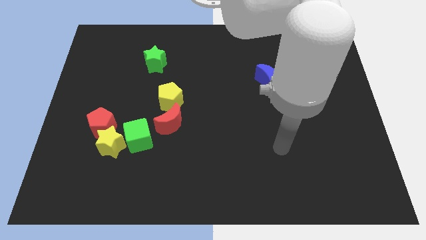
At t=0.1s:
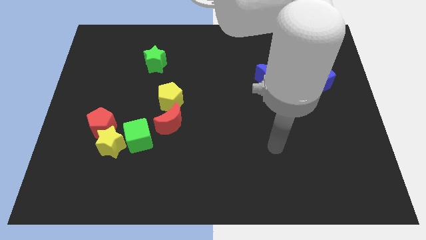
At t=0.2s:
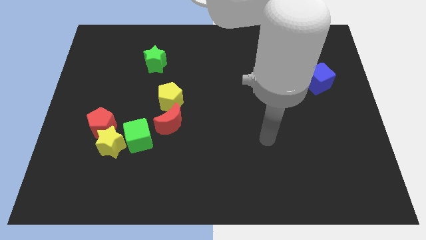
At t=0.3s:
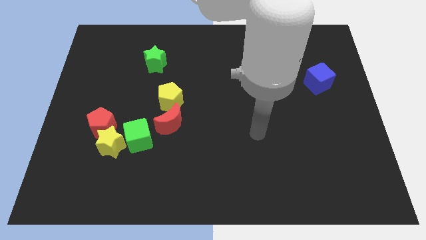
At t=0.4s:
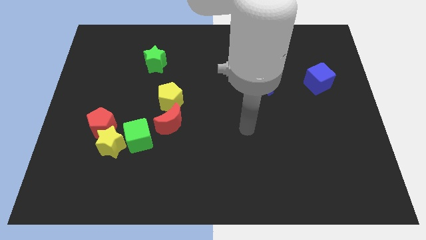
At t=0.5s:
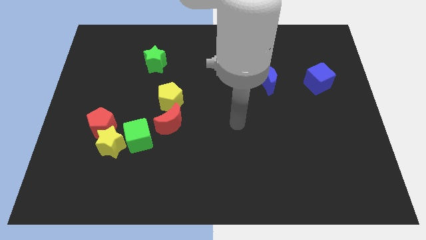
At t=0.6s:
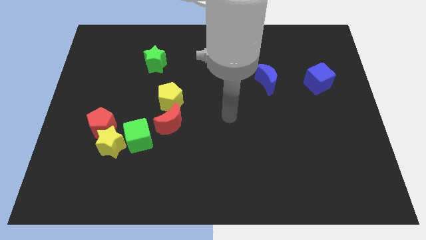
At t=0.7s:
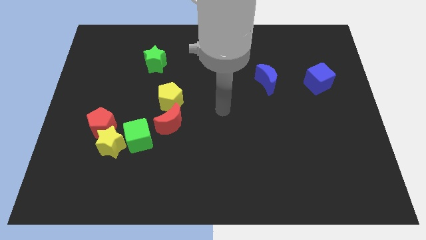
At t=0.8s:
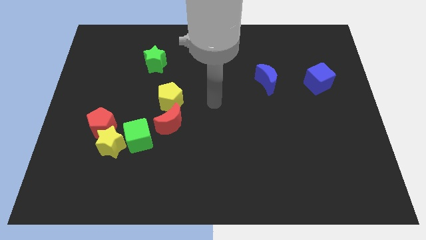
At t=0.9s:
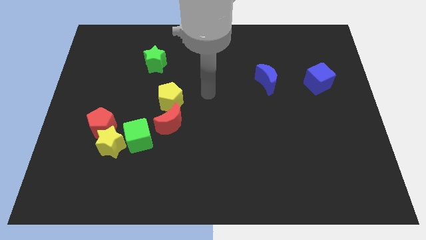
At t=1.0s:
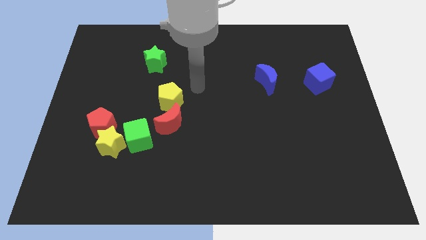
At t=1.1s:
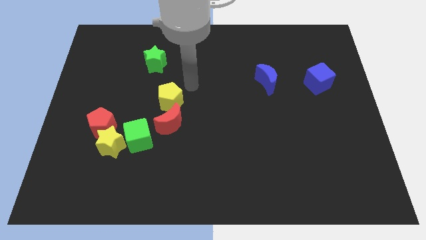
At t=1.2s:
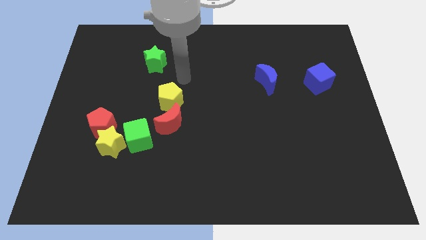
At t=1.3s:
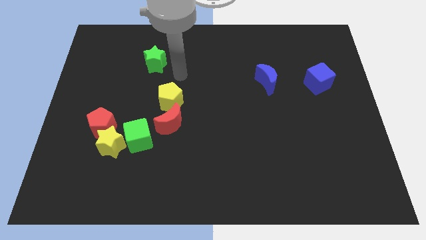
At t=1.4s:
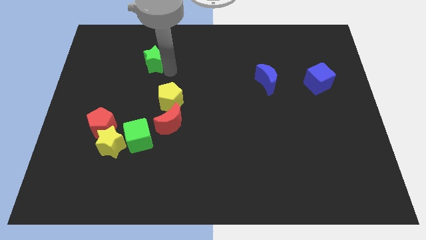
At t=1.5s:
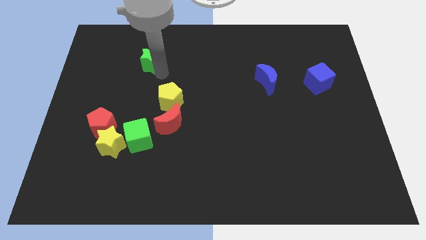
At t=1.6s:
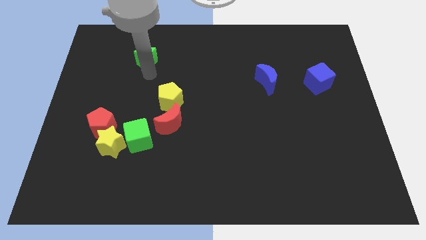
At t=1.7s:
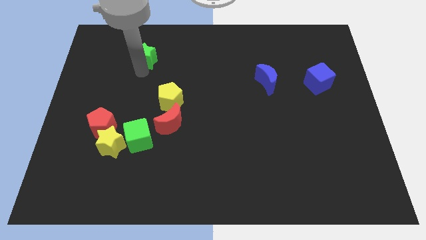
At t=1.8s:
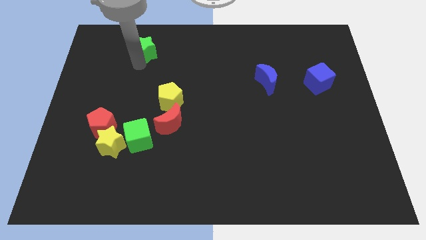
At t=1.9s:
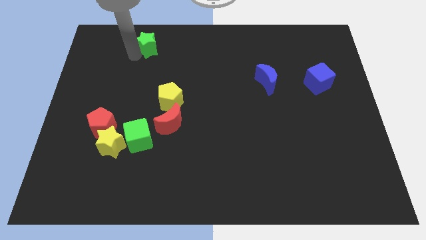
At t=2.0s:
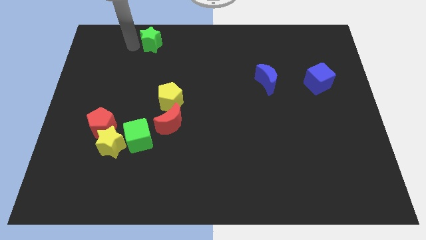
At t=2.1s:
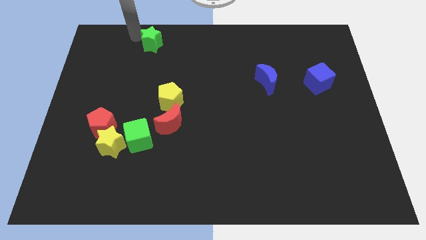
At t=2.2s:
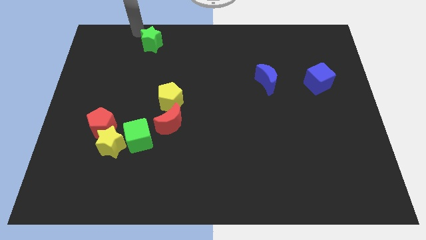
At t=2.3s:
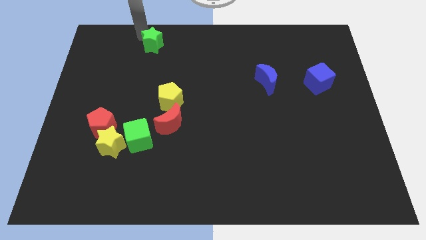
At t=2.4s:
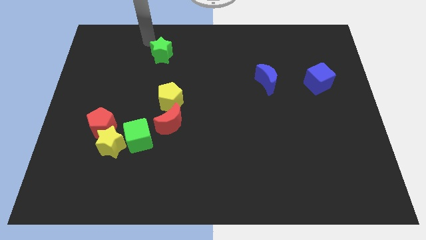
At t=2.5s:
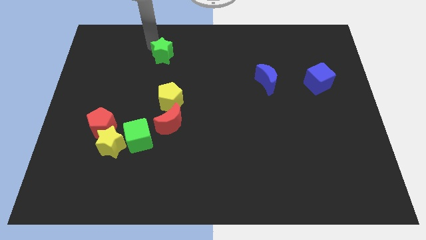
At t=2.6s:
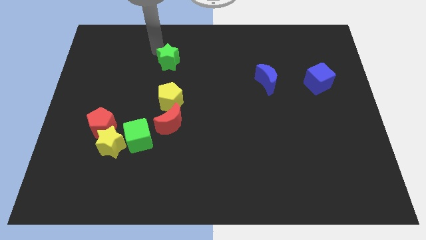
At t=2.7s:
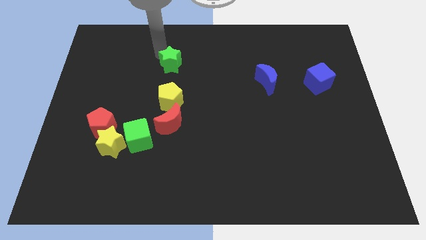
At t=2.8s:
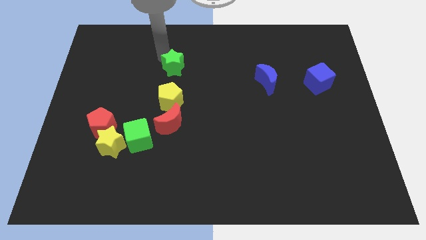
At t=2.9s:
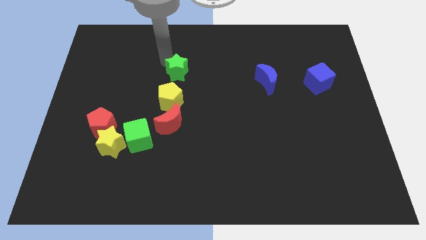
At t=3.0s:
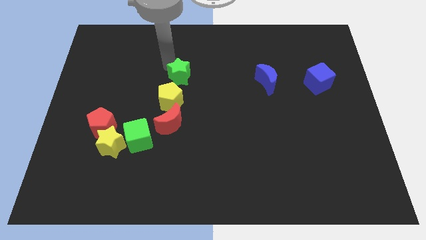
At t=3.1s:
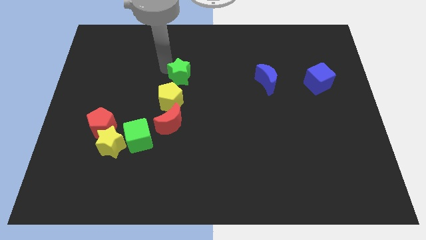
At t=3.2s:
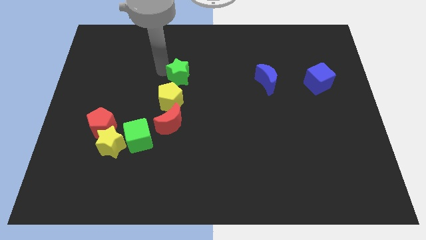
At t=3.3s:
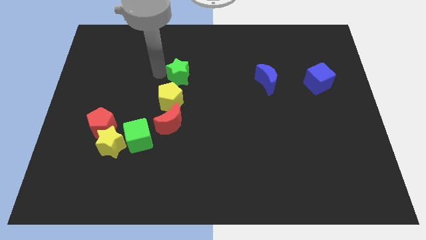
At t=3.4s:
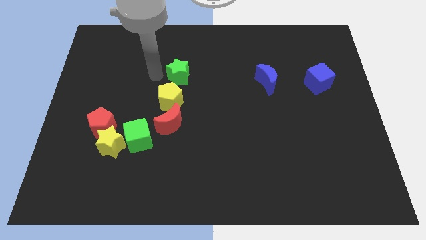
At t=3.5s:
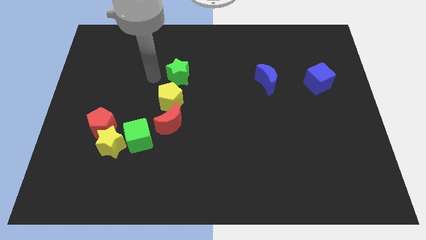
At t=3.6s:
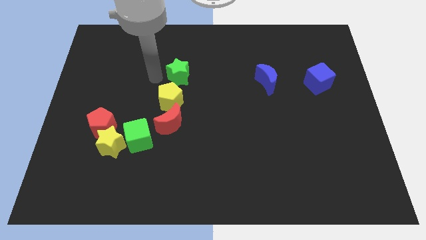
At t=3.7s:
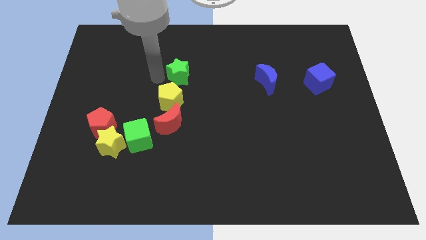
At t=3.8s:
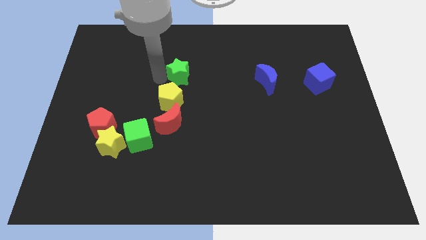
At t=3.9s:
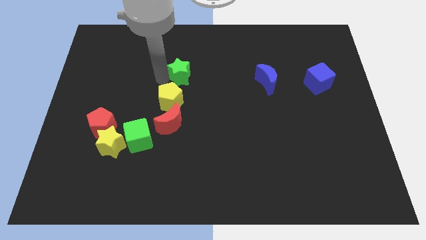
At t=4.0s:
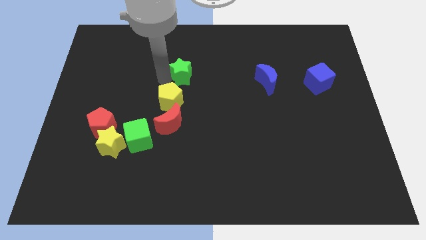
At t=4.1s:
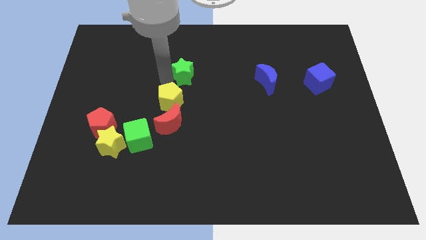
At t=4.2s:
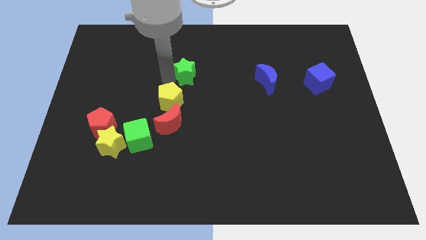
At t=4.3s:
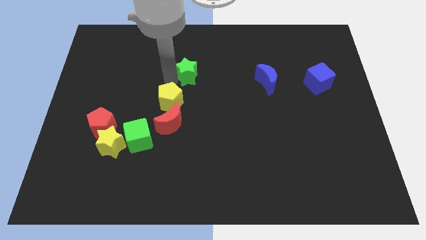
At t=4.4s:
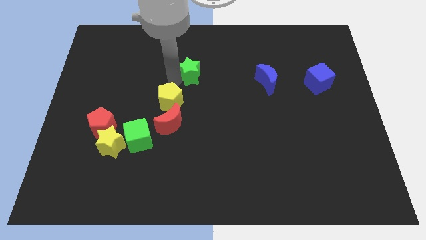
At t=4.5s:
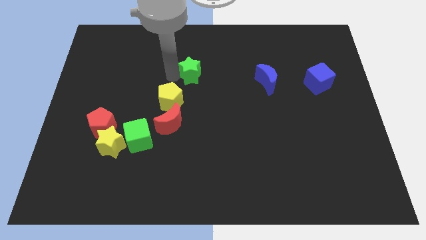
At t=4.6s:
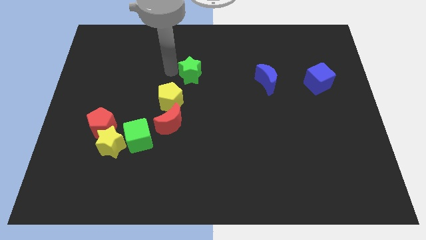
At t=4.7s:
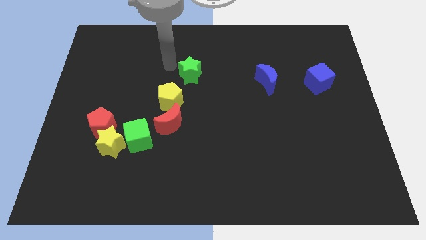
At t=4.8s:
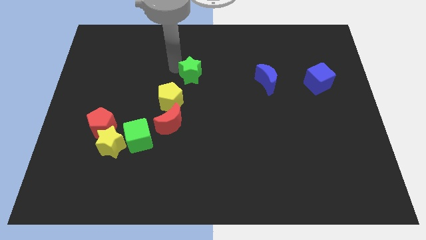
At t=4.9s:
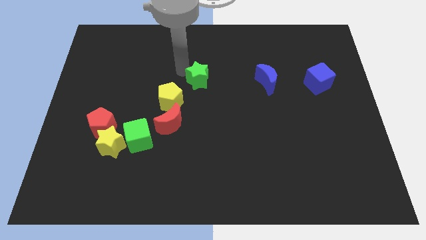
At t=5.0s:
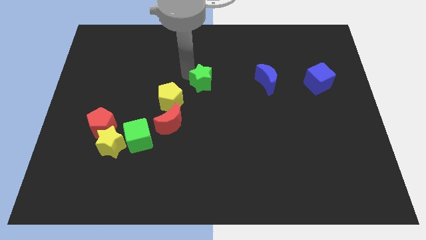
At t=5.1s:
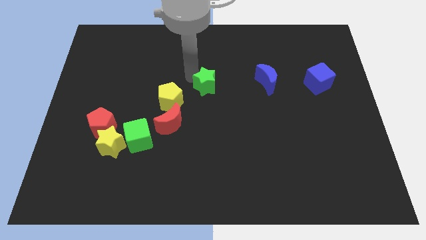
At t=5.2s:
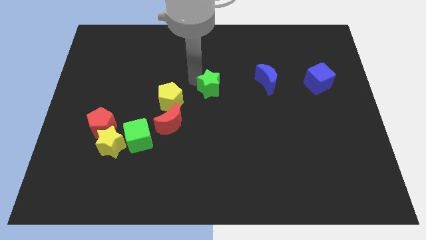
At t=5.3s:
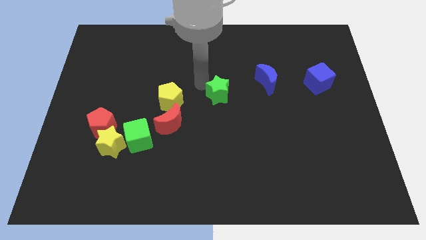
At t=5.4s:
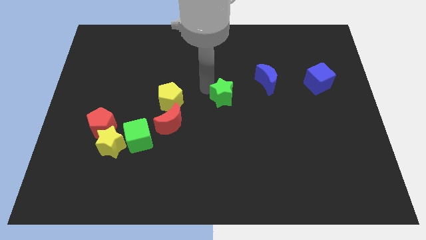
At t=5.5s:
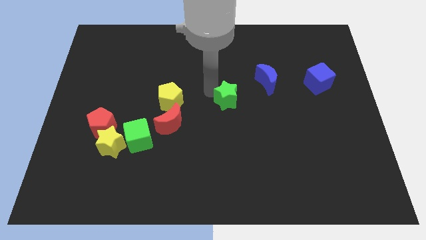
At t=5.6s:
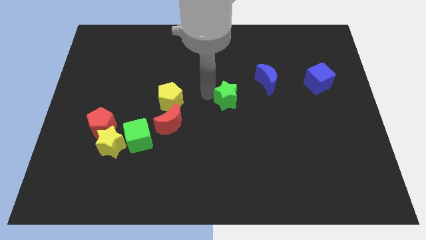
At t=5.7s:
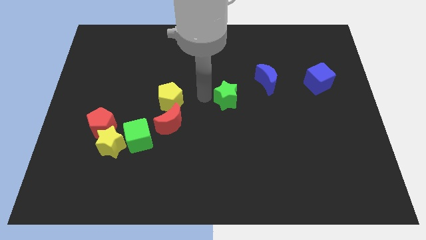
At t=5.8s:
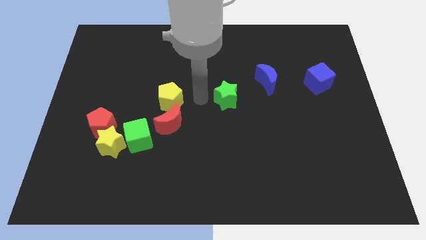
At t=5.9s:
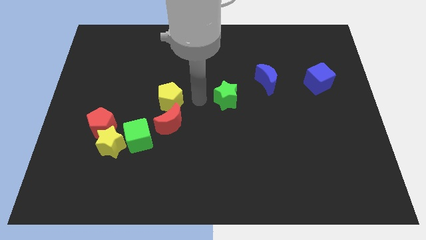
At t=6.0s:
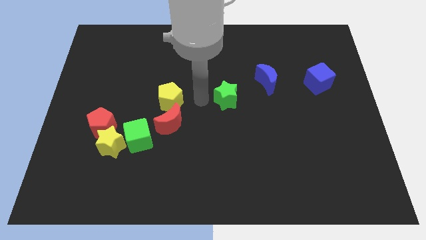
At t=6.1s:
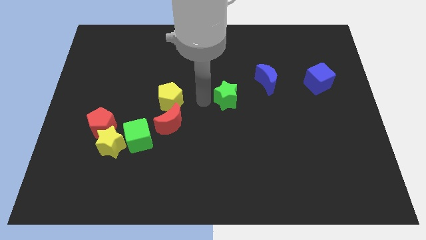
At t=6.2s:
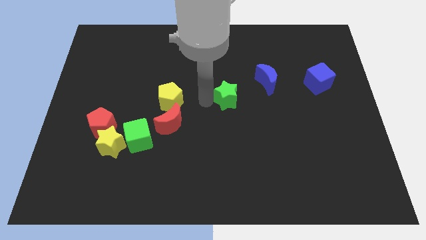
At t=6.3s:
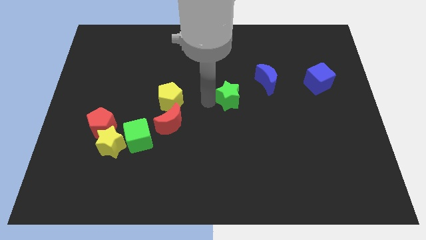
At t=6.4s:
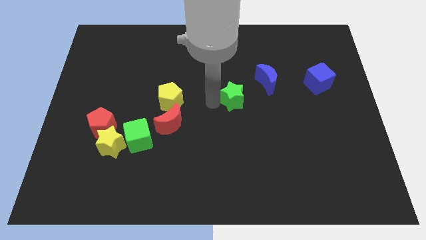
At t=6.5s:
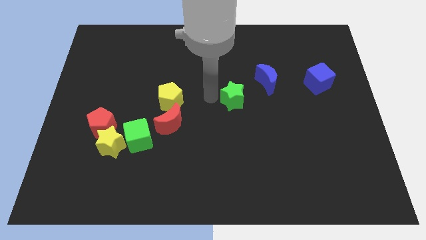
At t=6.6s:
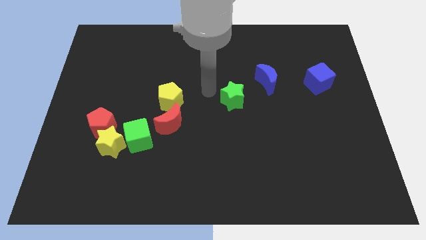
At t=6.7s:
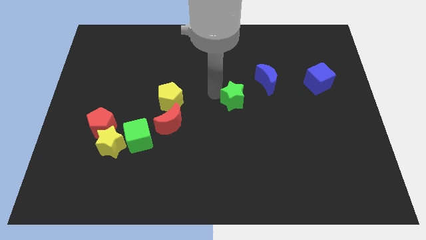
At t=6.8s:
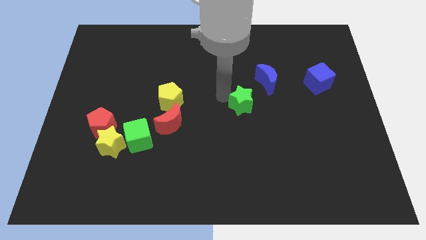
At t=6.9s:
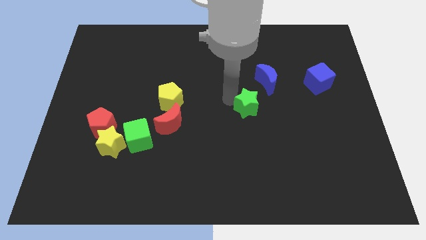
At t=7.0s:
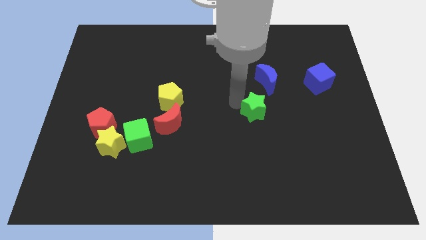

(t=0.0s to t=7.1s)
move the green star to the bottom of the blue moon

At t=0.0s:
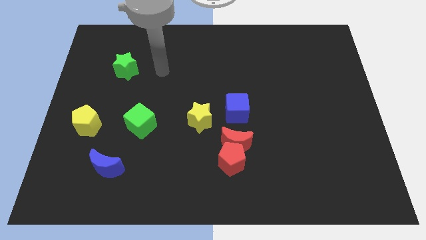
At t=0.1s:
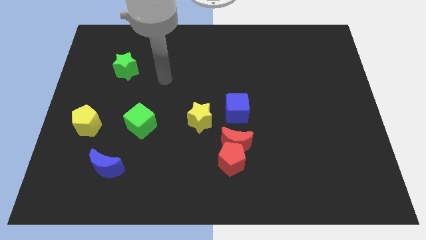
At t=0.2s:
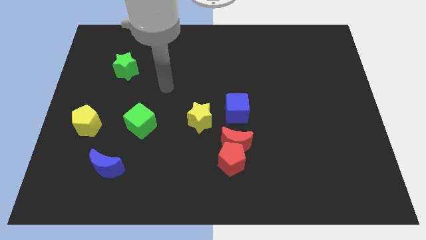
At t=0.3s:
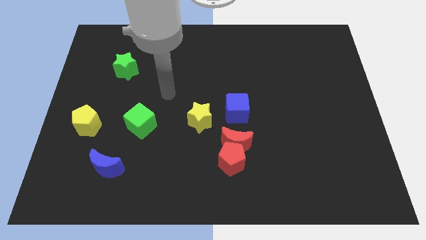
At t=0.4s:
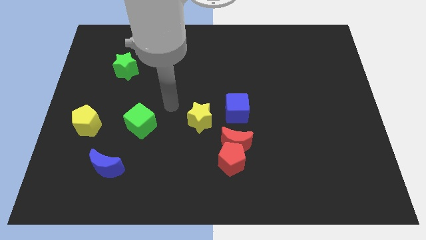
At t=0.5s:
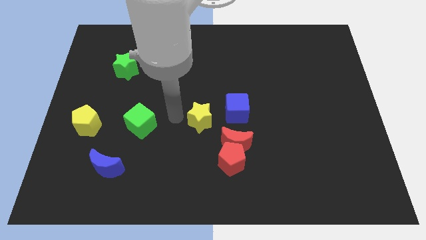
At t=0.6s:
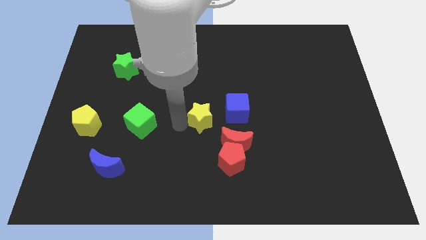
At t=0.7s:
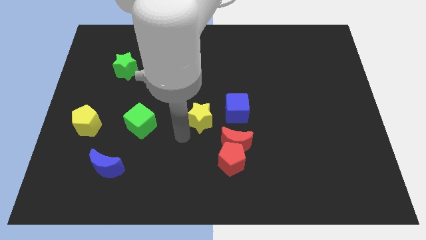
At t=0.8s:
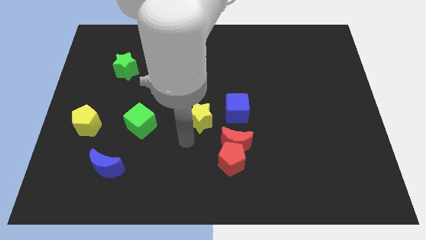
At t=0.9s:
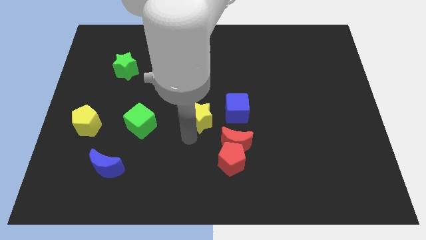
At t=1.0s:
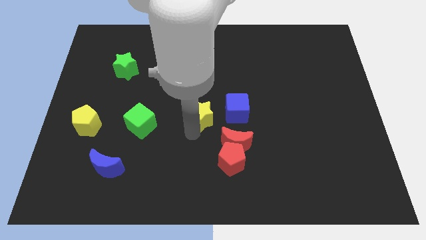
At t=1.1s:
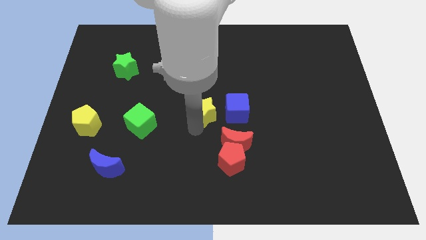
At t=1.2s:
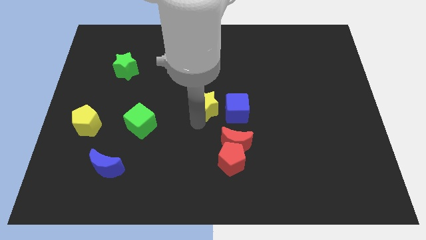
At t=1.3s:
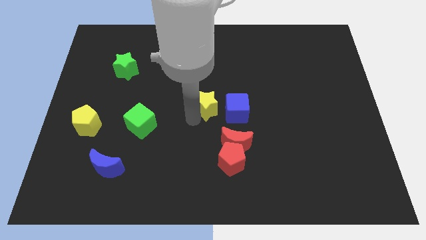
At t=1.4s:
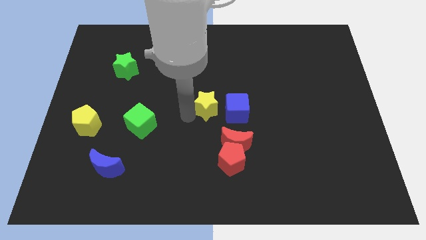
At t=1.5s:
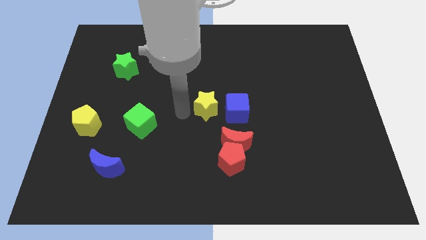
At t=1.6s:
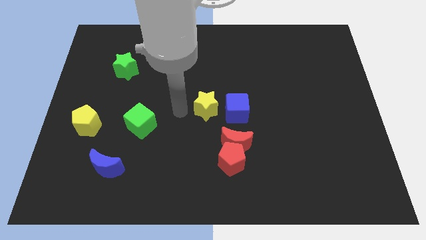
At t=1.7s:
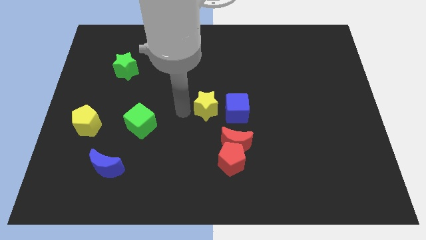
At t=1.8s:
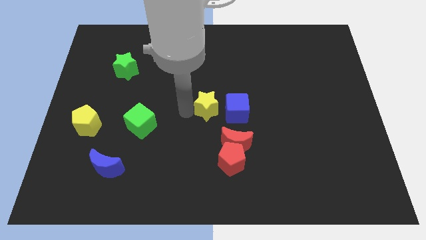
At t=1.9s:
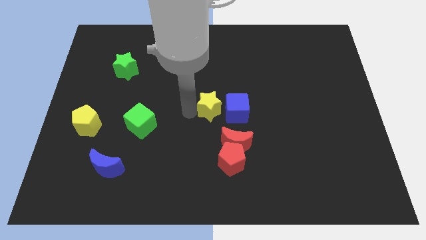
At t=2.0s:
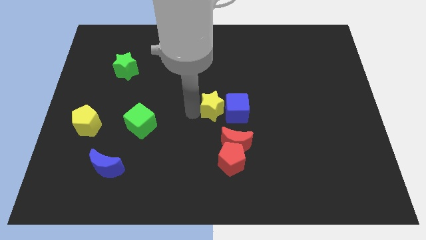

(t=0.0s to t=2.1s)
slide the yellow star to the top side of the red moon
